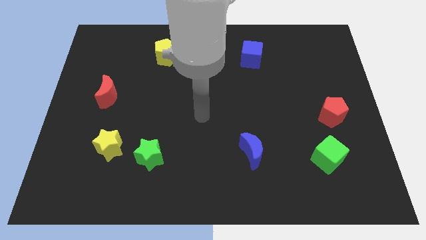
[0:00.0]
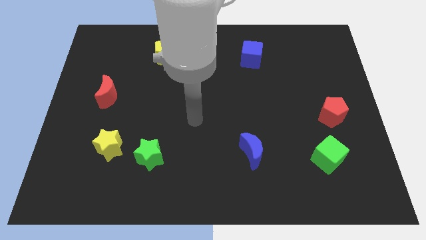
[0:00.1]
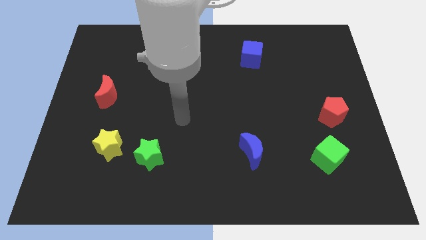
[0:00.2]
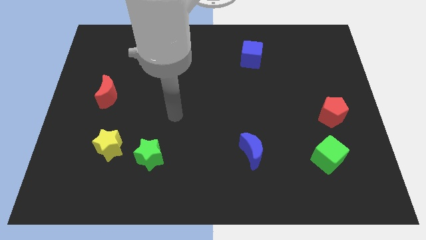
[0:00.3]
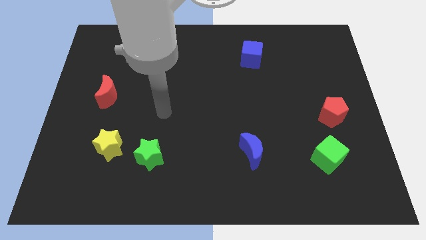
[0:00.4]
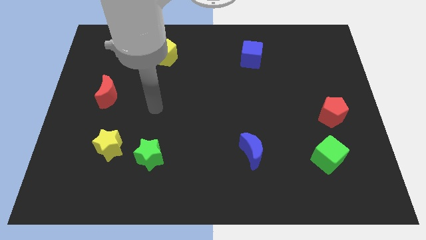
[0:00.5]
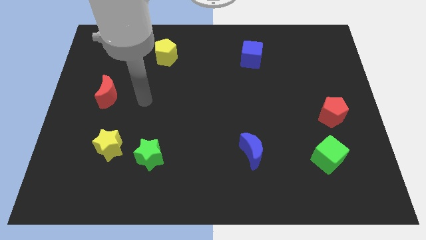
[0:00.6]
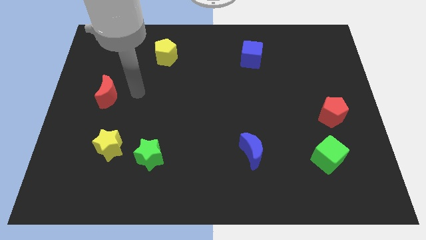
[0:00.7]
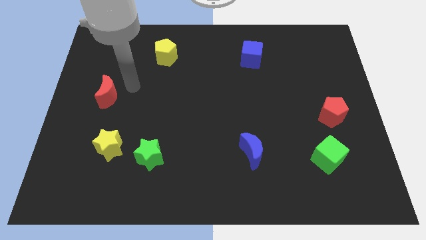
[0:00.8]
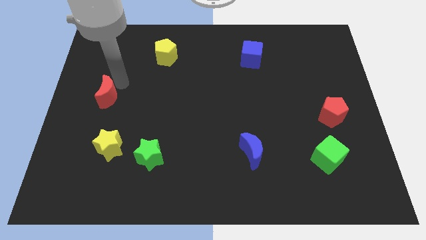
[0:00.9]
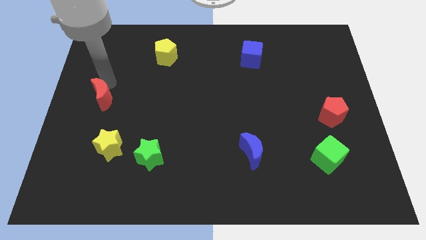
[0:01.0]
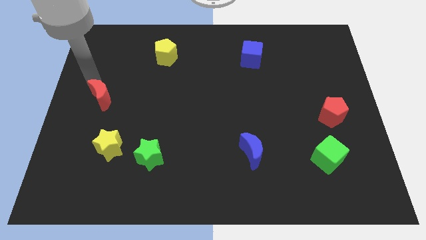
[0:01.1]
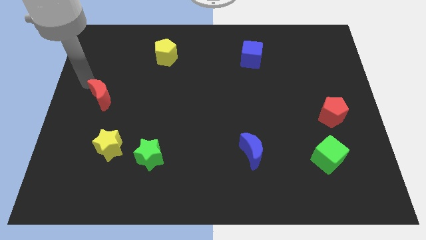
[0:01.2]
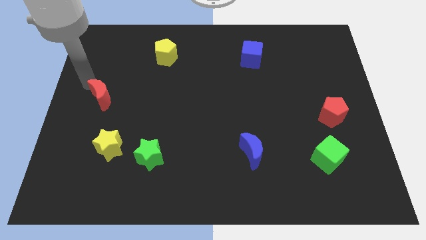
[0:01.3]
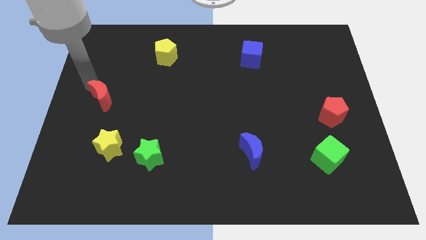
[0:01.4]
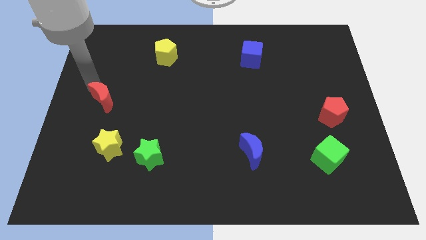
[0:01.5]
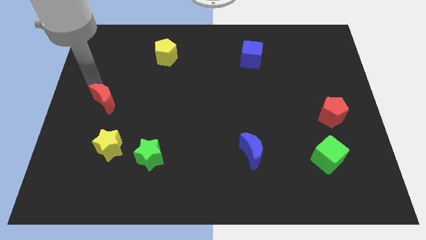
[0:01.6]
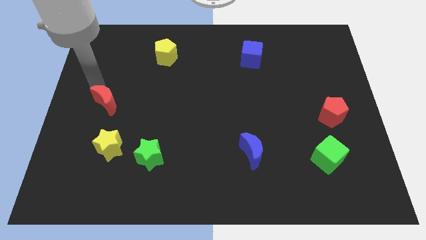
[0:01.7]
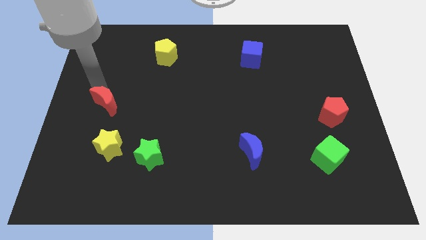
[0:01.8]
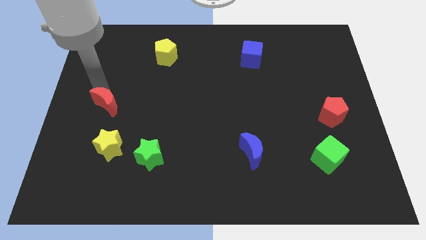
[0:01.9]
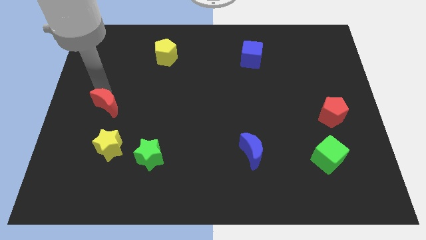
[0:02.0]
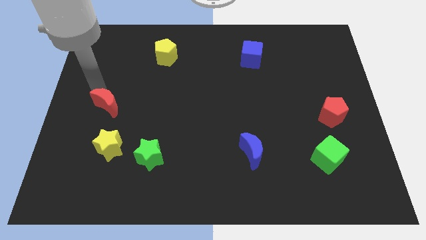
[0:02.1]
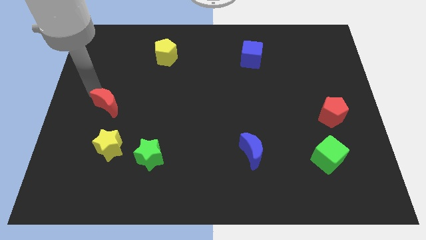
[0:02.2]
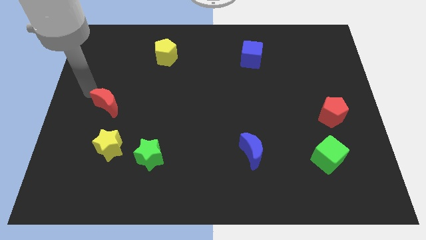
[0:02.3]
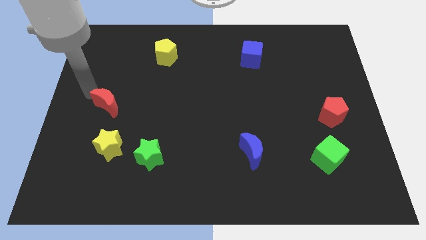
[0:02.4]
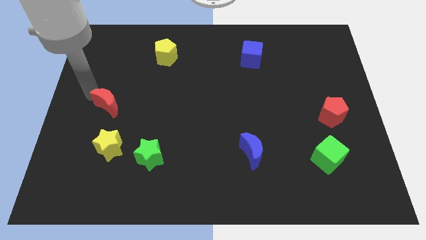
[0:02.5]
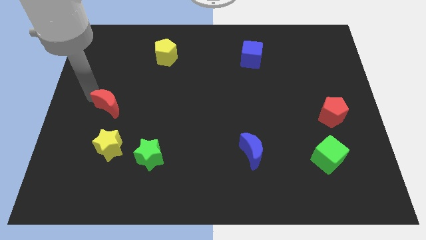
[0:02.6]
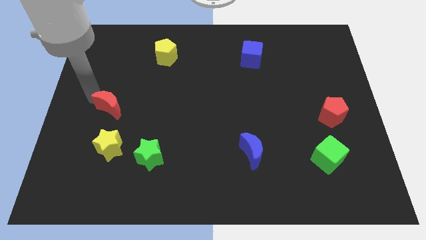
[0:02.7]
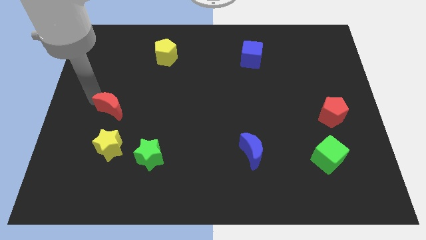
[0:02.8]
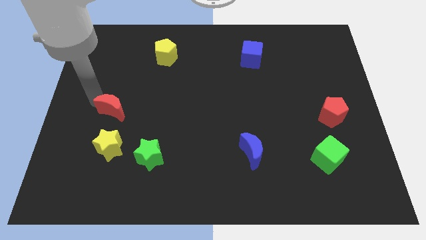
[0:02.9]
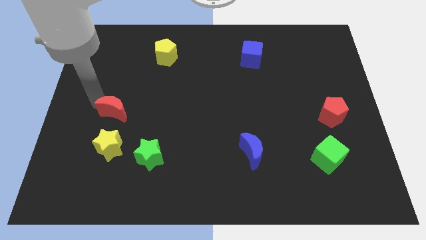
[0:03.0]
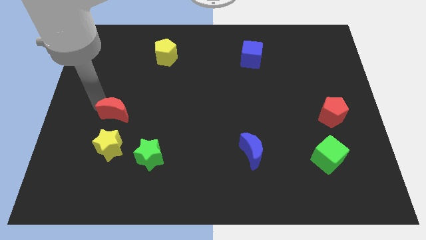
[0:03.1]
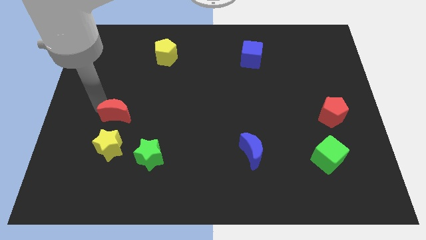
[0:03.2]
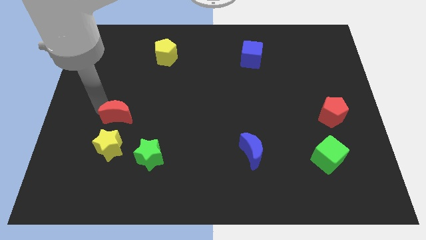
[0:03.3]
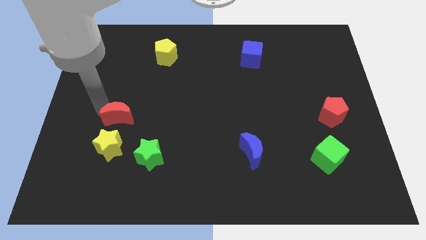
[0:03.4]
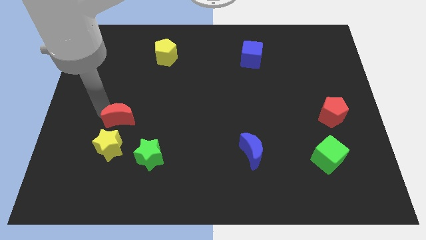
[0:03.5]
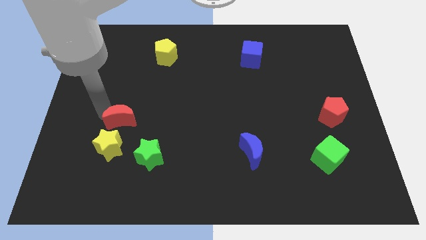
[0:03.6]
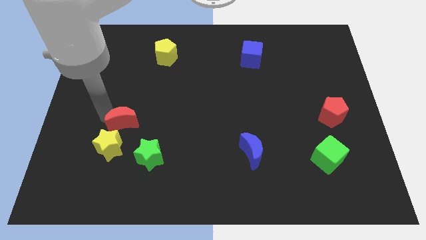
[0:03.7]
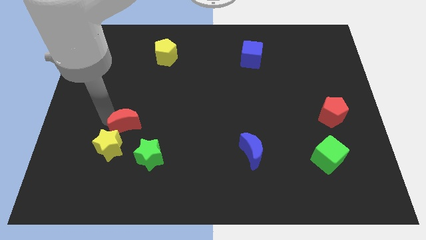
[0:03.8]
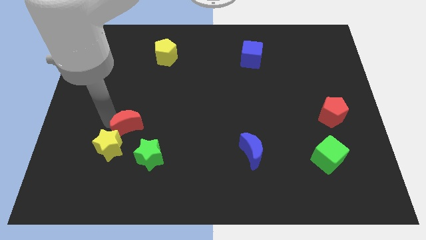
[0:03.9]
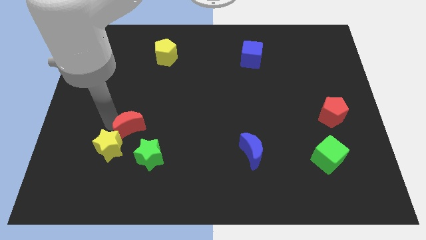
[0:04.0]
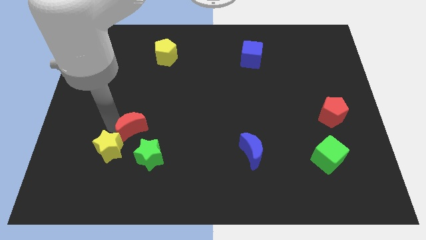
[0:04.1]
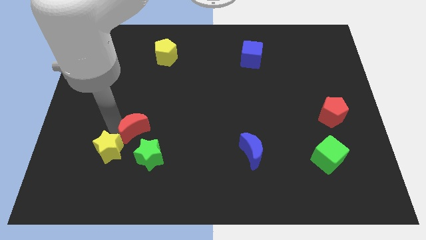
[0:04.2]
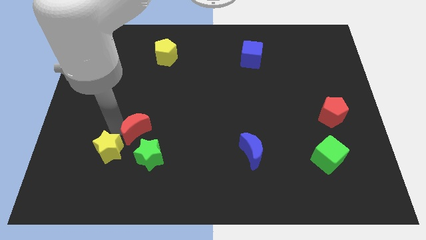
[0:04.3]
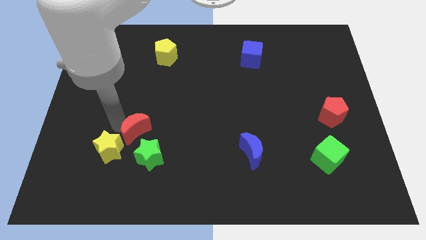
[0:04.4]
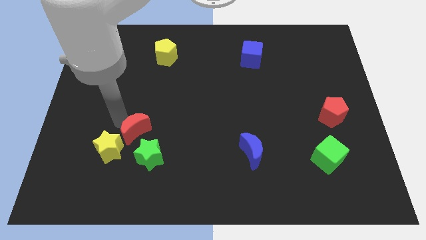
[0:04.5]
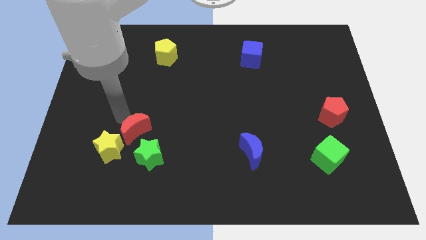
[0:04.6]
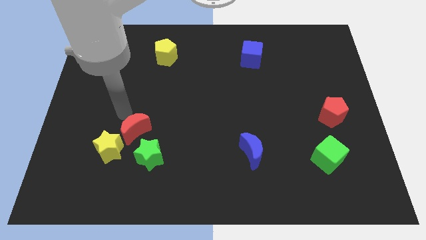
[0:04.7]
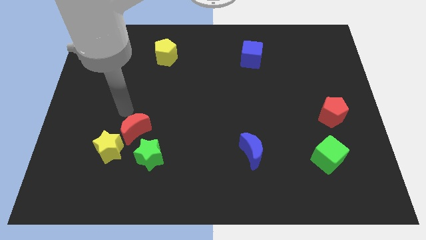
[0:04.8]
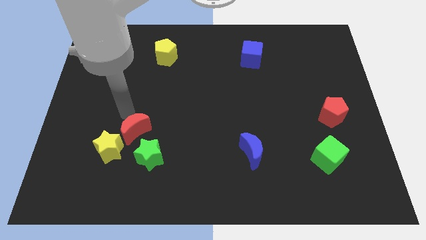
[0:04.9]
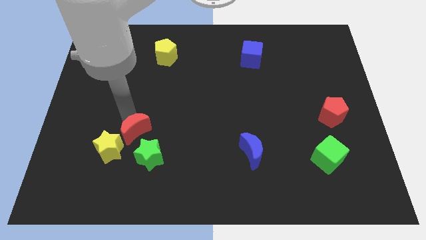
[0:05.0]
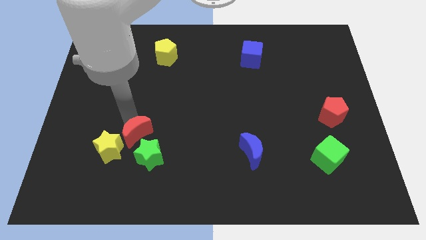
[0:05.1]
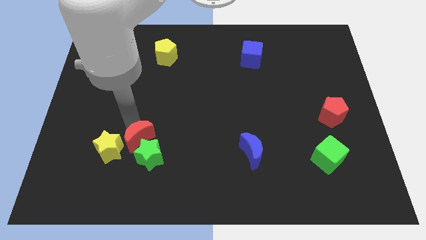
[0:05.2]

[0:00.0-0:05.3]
put the red moon to the green star

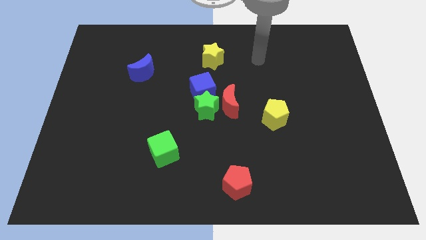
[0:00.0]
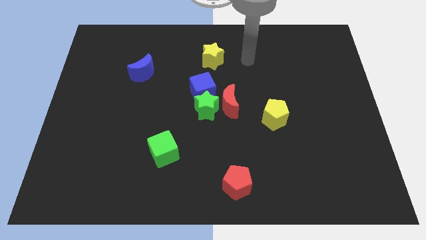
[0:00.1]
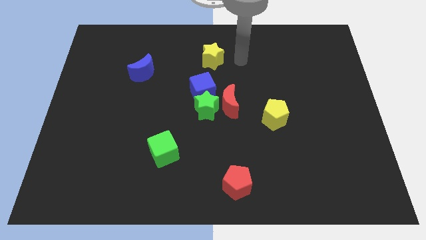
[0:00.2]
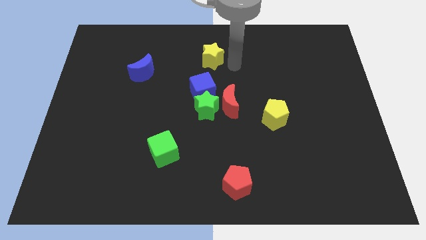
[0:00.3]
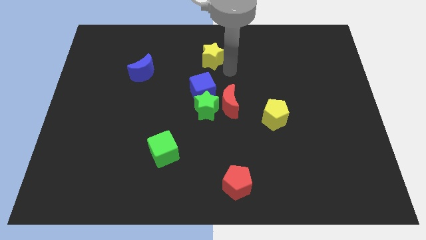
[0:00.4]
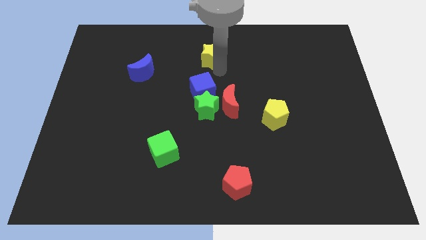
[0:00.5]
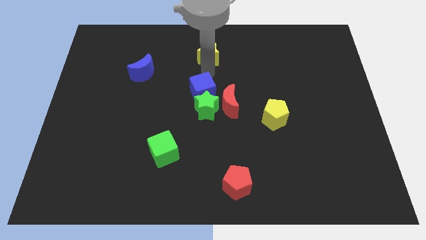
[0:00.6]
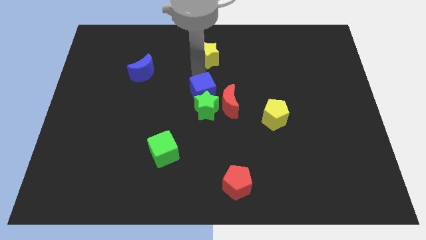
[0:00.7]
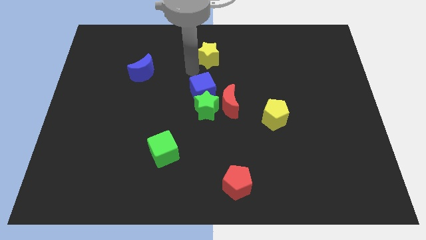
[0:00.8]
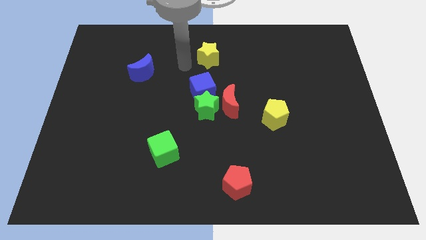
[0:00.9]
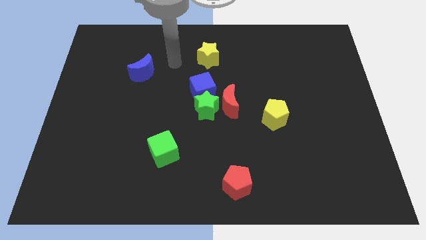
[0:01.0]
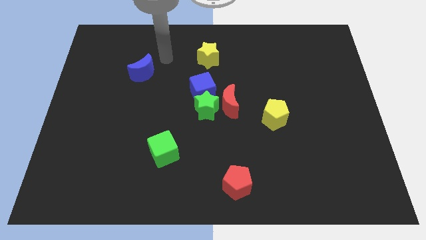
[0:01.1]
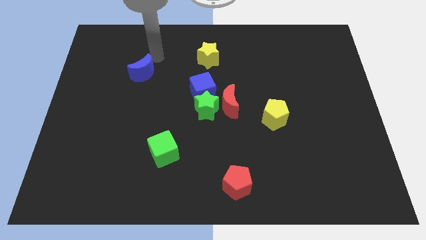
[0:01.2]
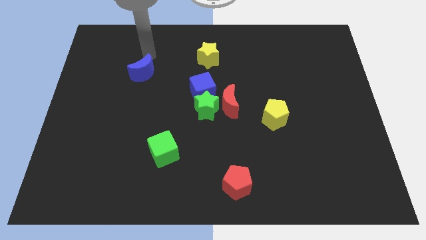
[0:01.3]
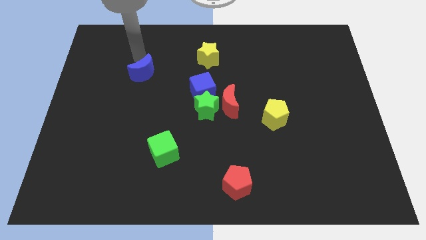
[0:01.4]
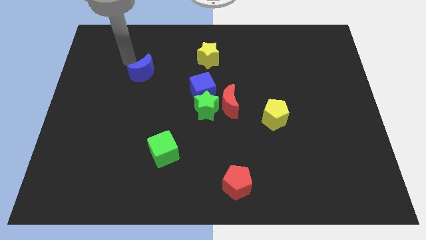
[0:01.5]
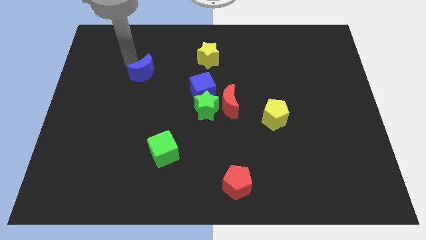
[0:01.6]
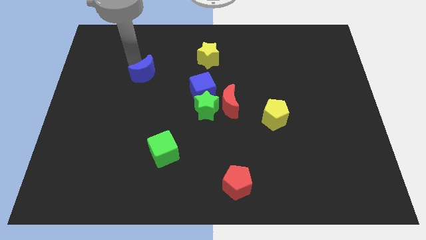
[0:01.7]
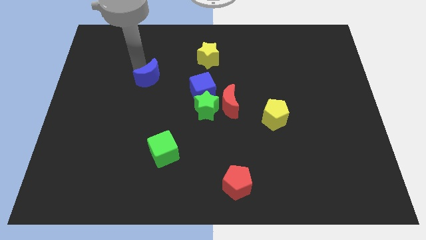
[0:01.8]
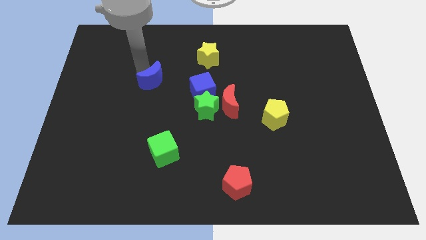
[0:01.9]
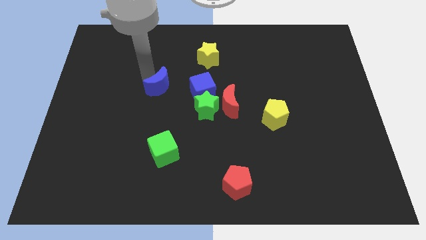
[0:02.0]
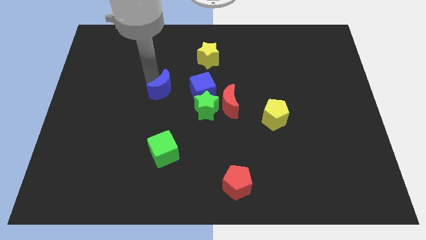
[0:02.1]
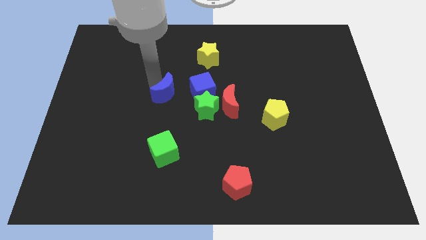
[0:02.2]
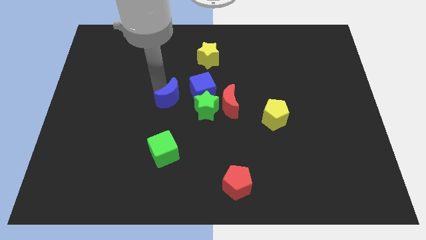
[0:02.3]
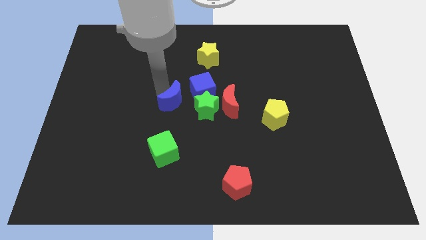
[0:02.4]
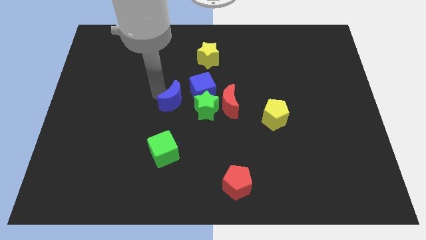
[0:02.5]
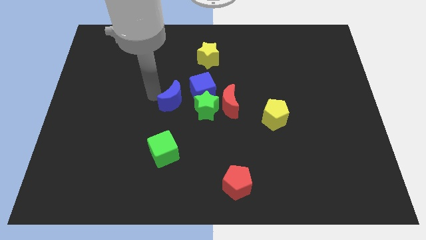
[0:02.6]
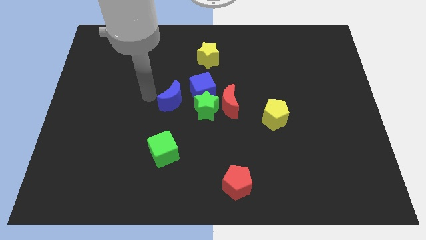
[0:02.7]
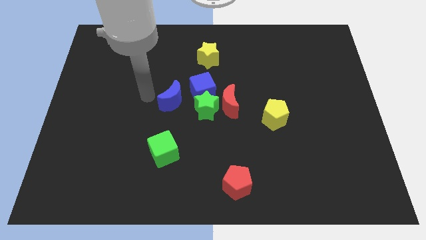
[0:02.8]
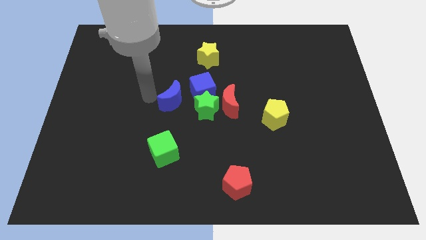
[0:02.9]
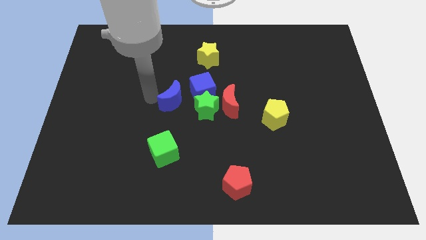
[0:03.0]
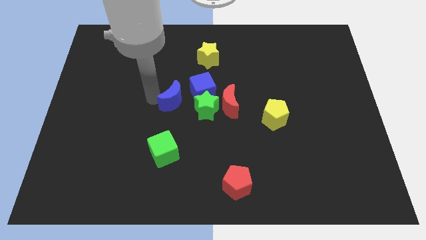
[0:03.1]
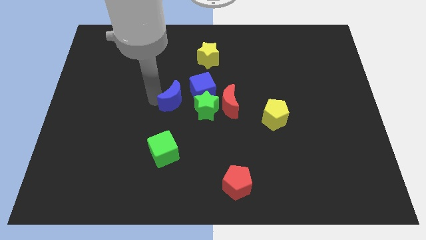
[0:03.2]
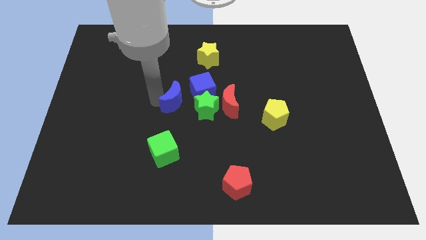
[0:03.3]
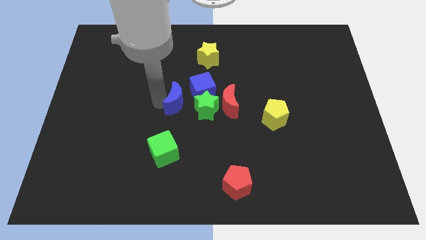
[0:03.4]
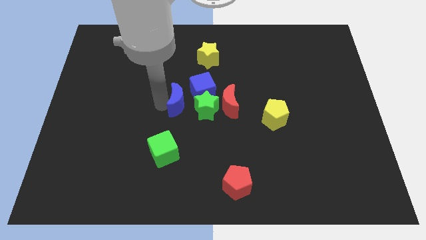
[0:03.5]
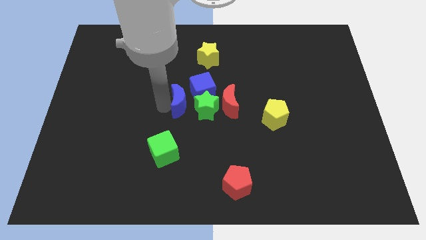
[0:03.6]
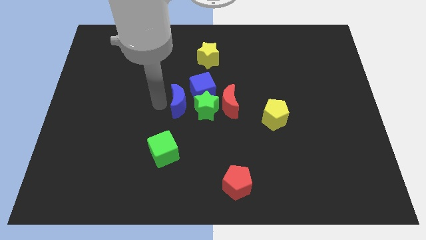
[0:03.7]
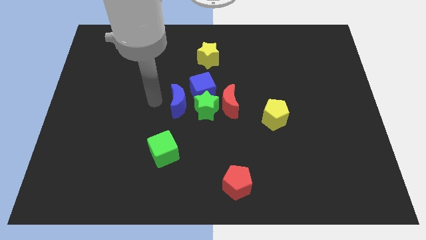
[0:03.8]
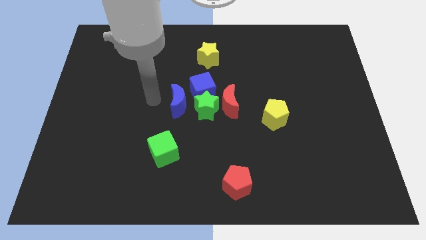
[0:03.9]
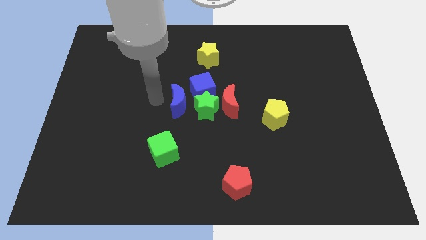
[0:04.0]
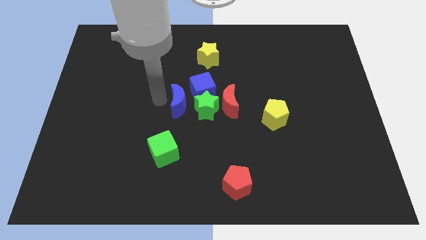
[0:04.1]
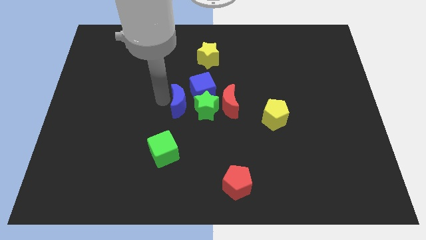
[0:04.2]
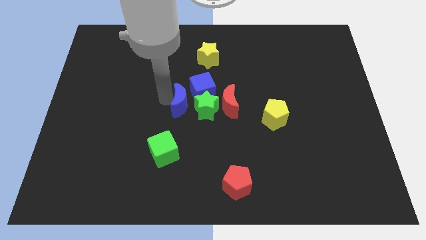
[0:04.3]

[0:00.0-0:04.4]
put the blue moon towards the green star
